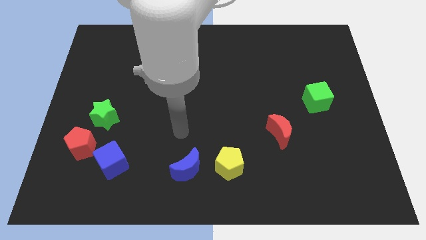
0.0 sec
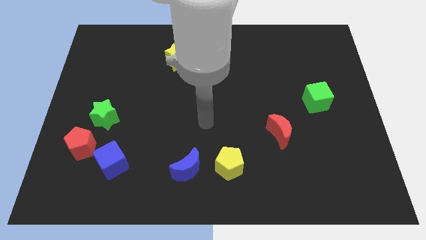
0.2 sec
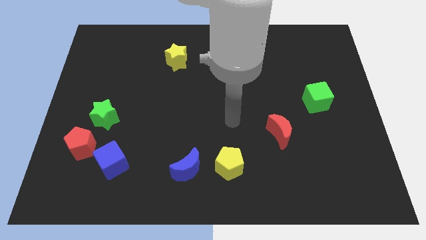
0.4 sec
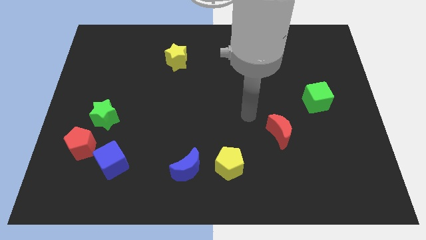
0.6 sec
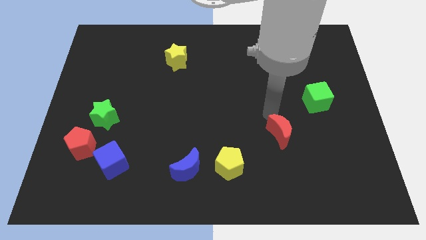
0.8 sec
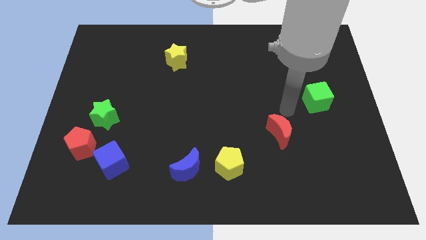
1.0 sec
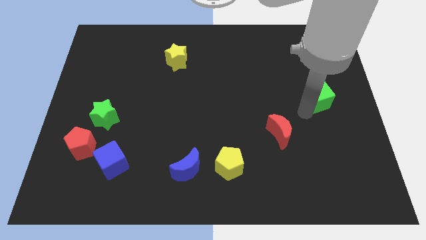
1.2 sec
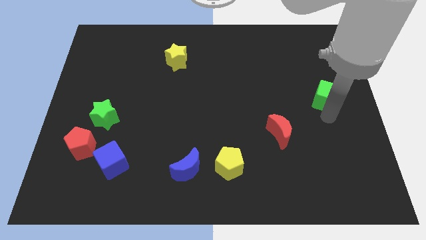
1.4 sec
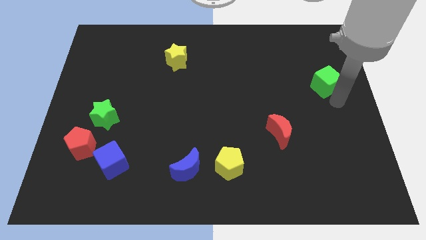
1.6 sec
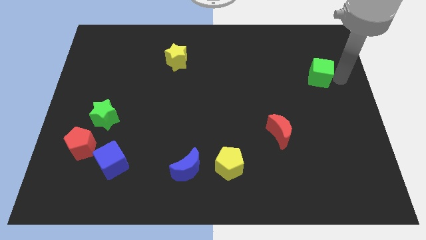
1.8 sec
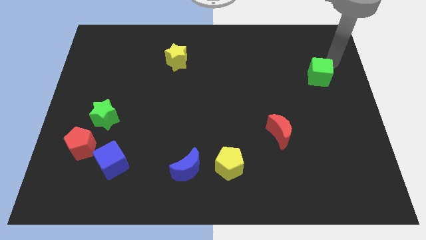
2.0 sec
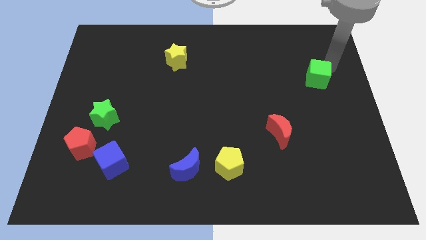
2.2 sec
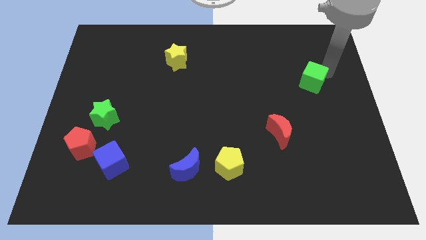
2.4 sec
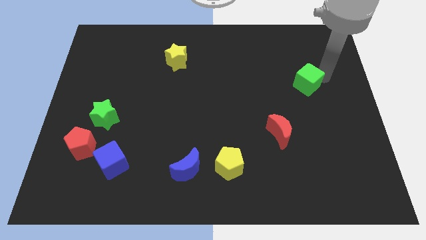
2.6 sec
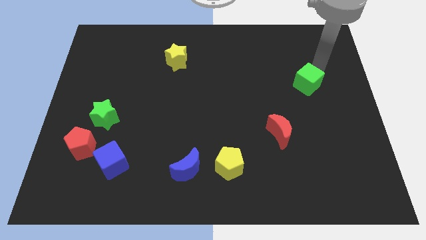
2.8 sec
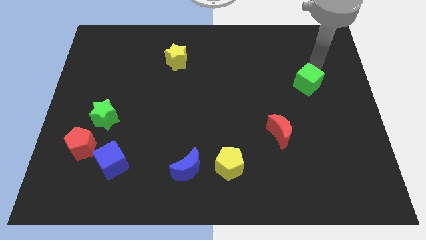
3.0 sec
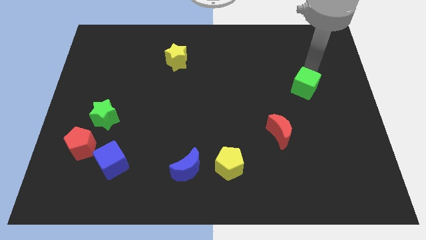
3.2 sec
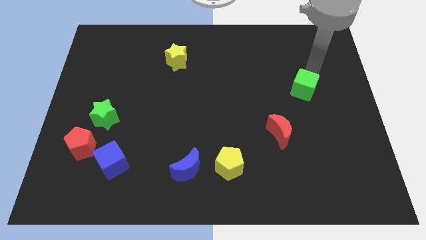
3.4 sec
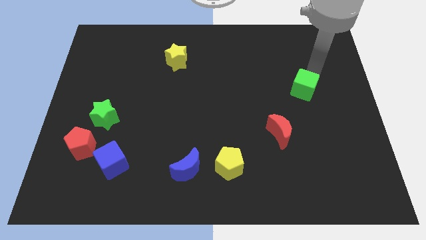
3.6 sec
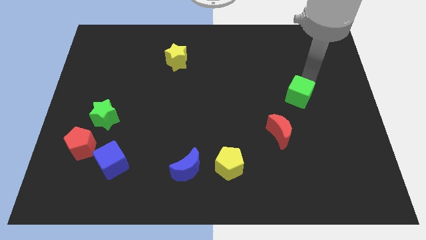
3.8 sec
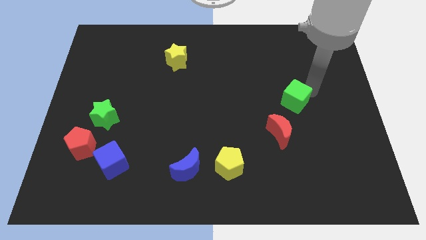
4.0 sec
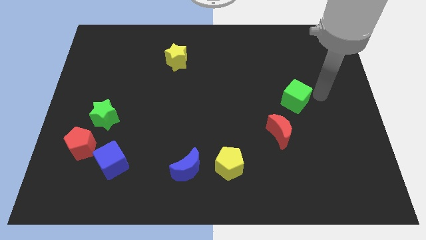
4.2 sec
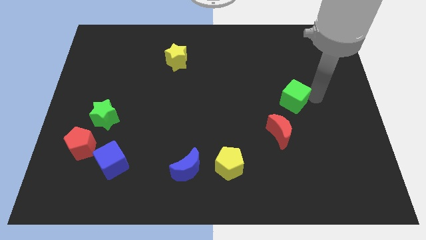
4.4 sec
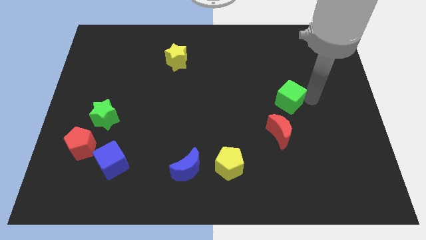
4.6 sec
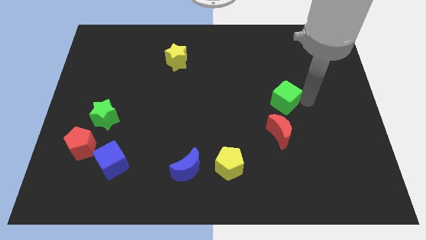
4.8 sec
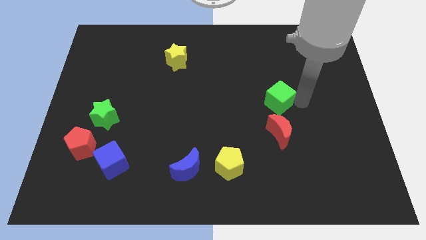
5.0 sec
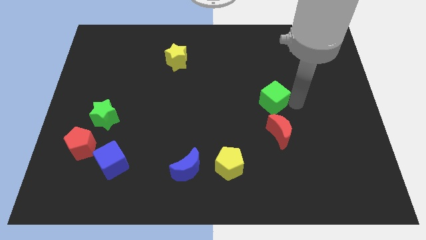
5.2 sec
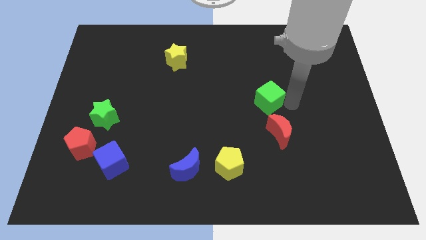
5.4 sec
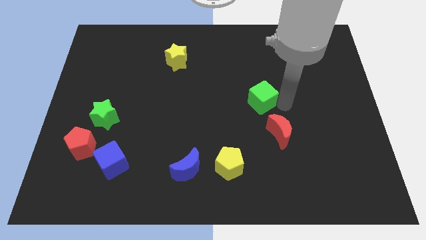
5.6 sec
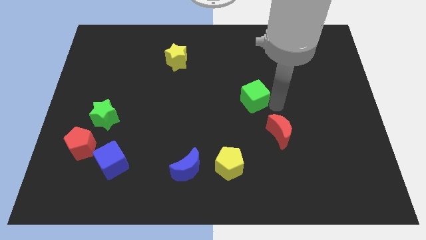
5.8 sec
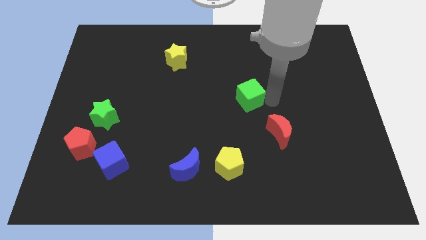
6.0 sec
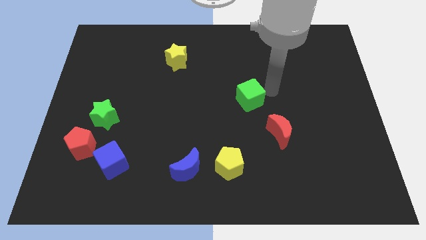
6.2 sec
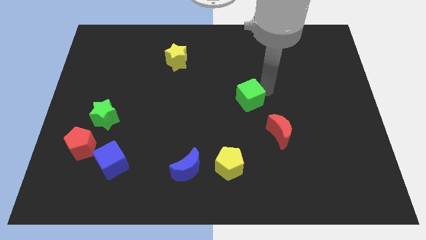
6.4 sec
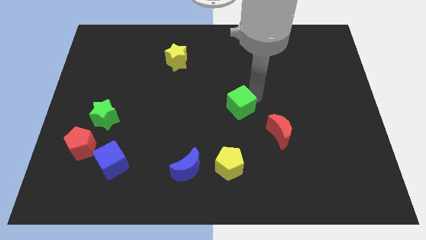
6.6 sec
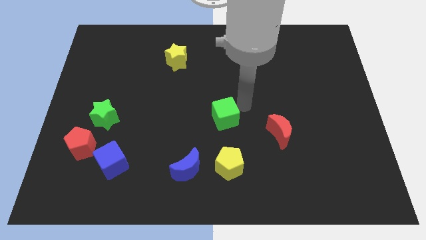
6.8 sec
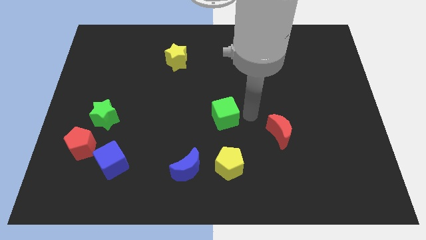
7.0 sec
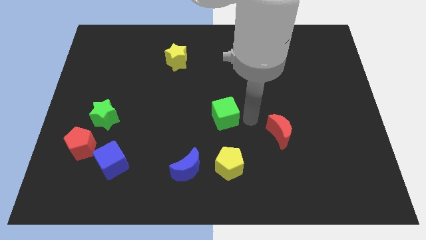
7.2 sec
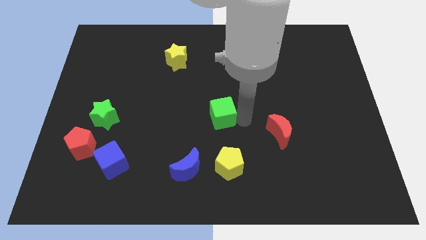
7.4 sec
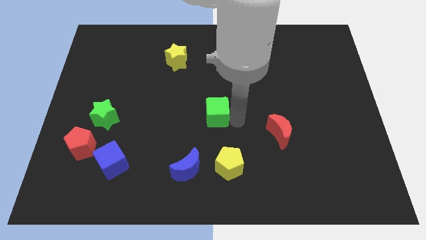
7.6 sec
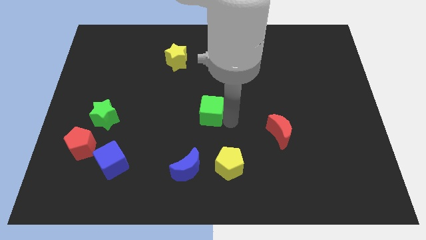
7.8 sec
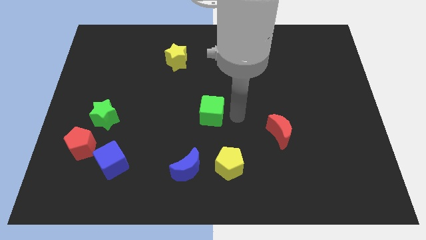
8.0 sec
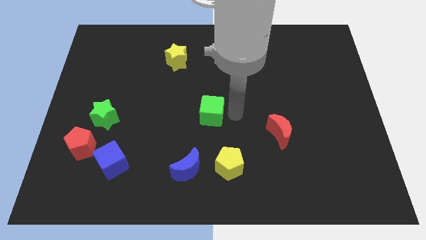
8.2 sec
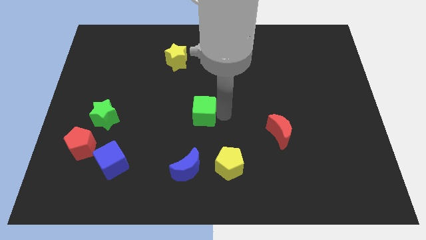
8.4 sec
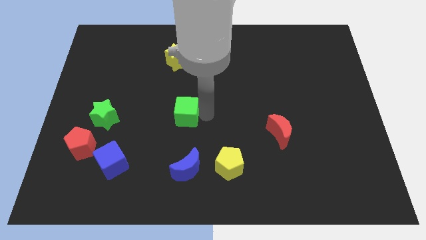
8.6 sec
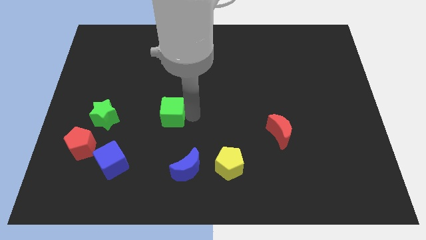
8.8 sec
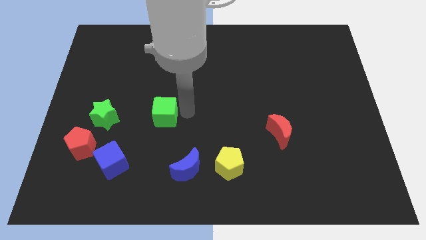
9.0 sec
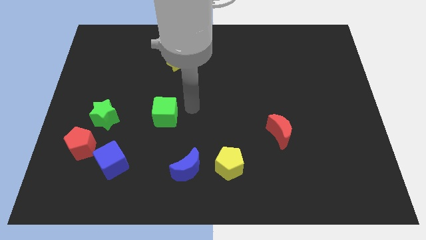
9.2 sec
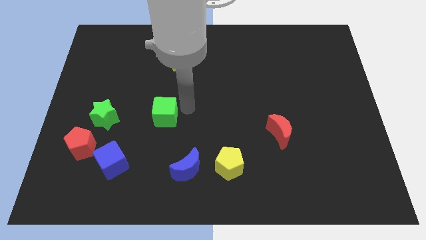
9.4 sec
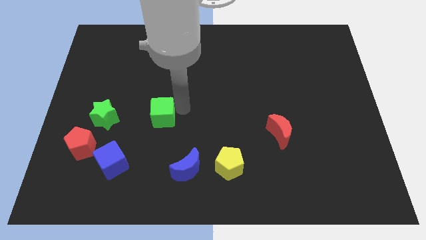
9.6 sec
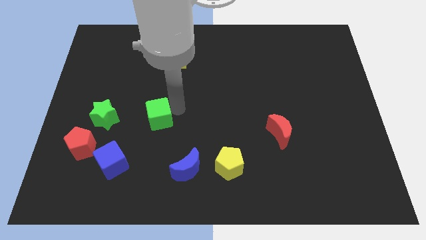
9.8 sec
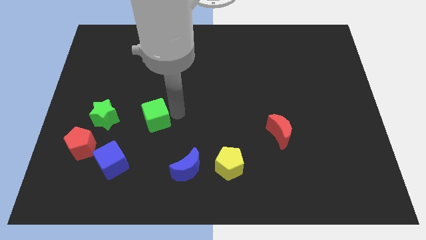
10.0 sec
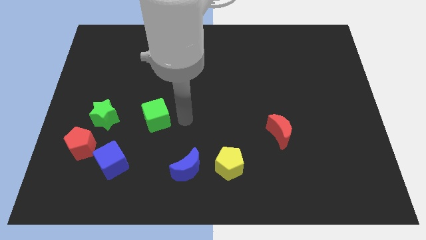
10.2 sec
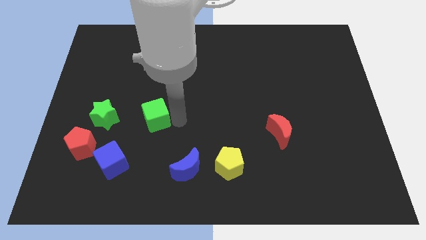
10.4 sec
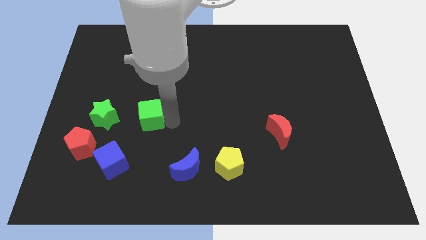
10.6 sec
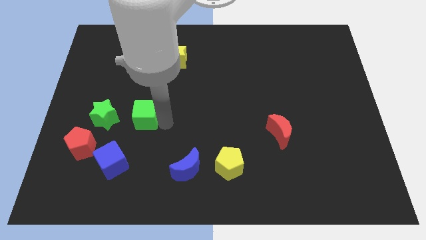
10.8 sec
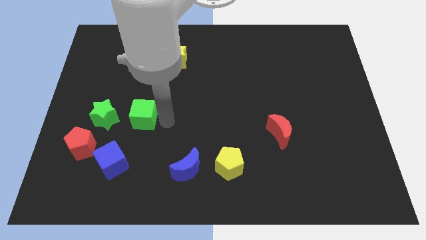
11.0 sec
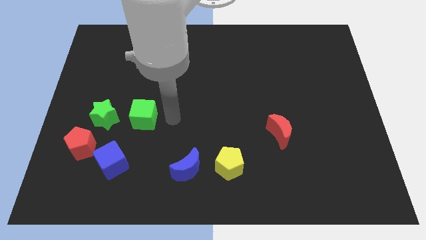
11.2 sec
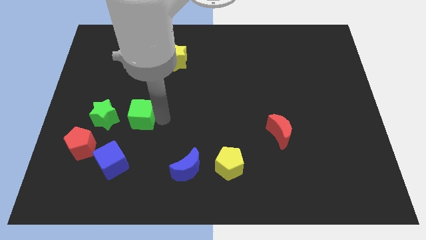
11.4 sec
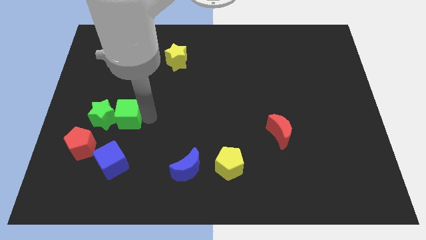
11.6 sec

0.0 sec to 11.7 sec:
push the green cube to the top right of the red pentagon

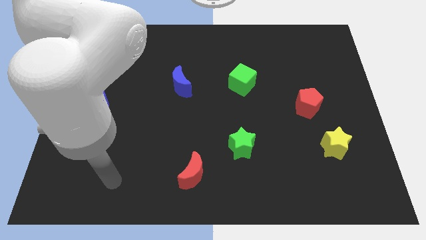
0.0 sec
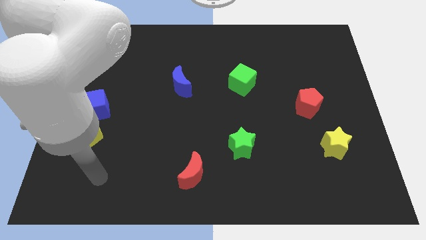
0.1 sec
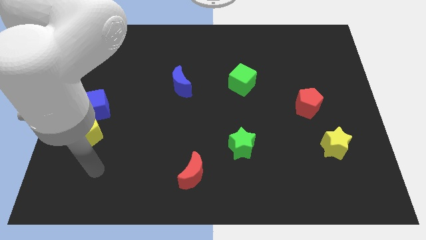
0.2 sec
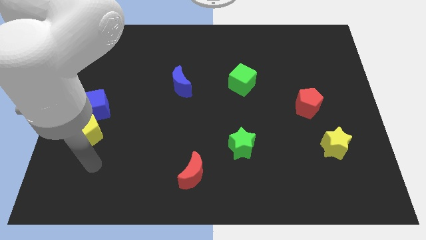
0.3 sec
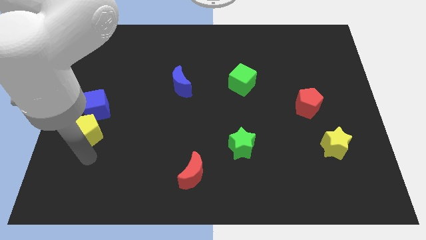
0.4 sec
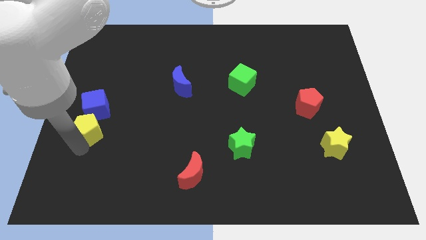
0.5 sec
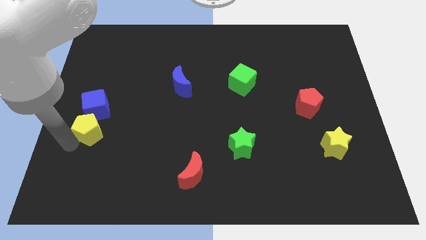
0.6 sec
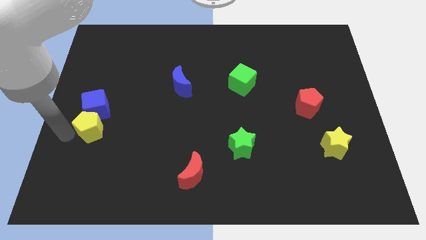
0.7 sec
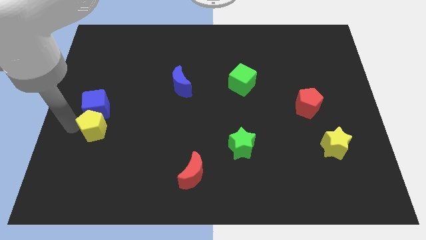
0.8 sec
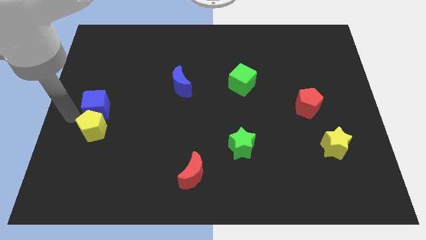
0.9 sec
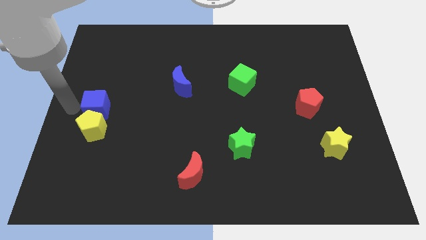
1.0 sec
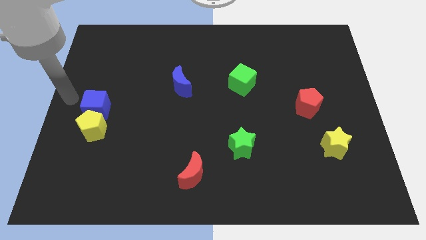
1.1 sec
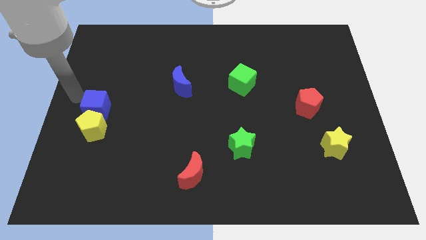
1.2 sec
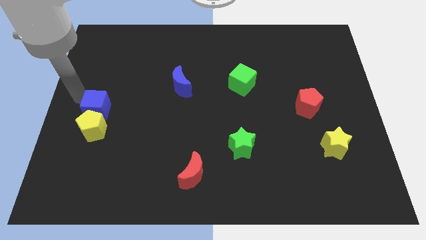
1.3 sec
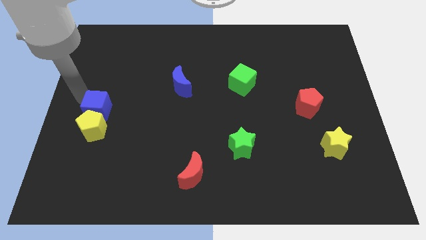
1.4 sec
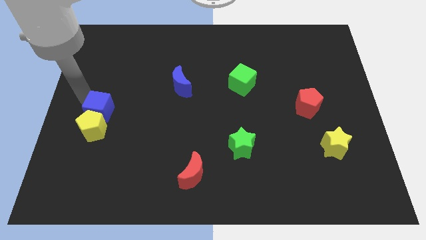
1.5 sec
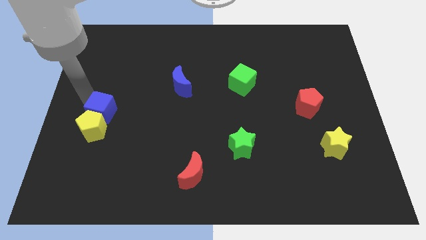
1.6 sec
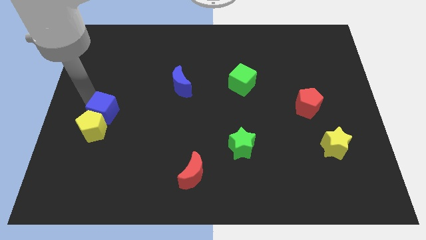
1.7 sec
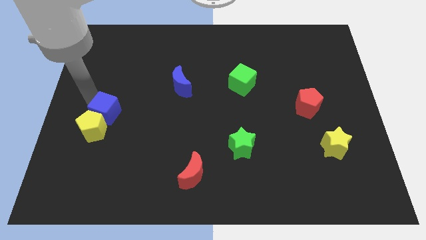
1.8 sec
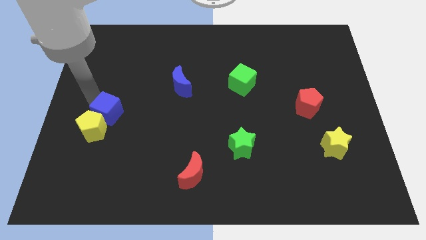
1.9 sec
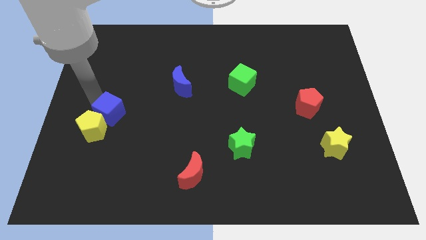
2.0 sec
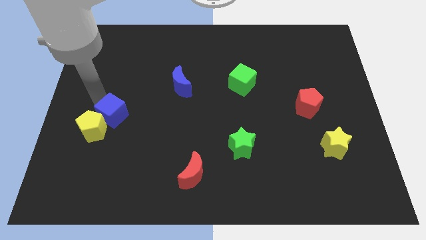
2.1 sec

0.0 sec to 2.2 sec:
push the blue cube right of the yellow pentagon
